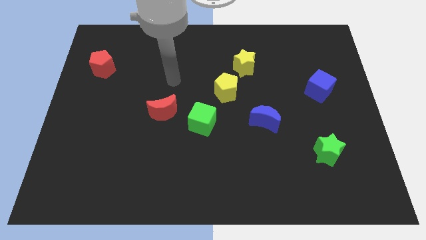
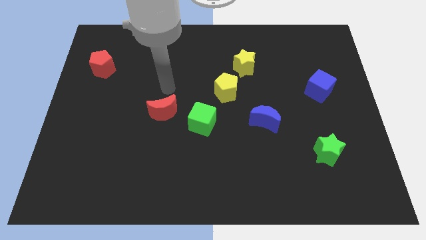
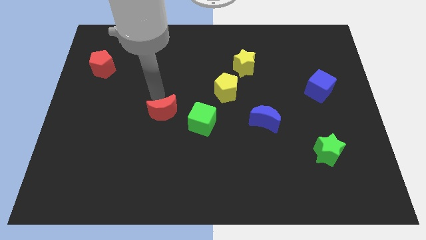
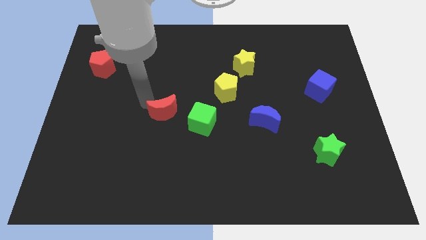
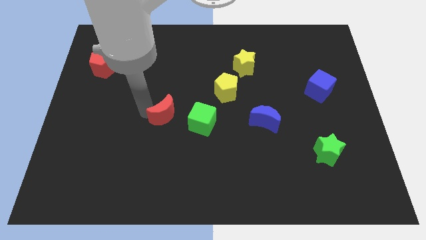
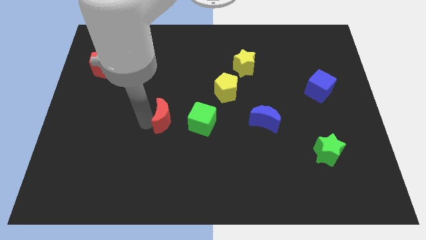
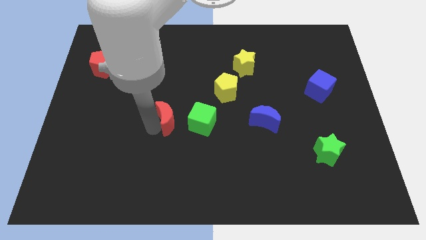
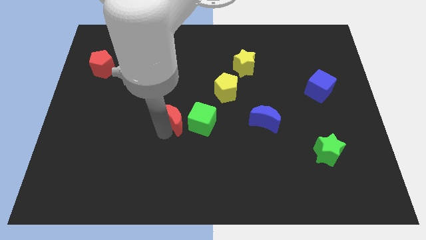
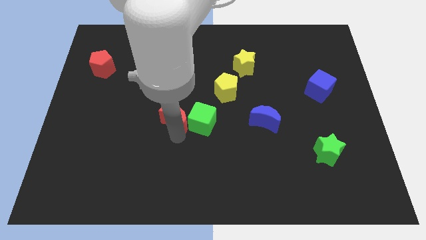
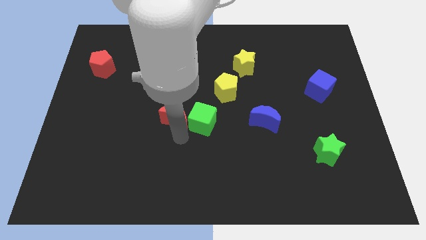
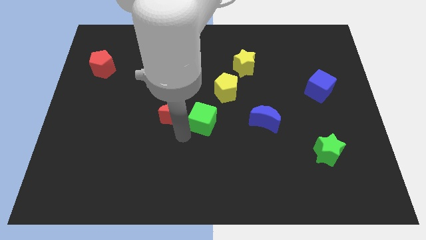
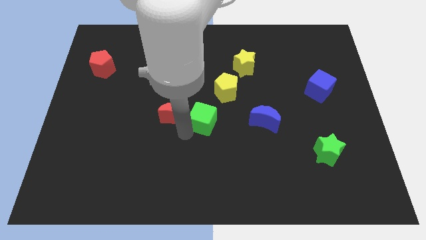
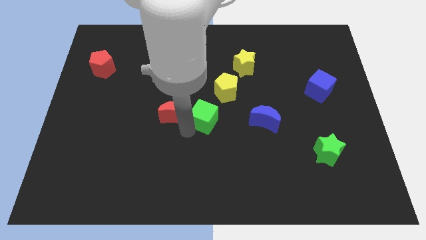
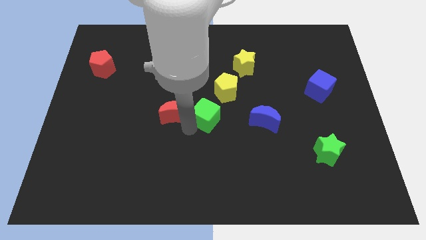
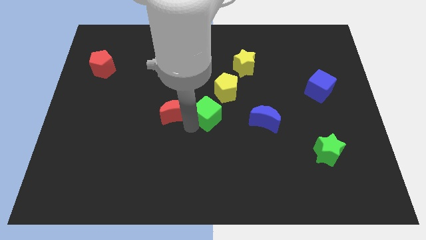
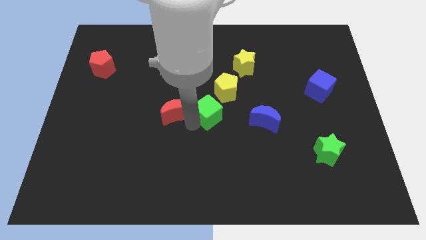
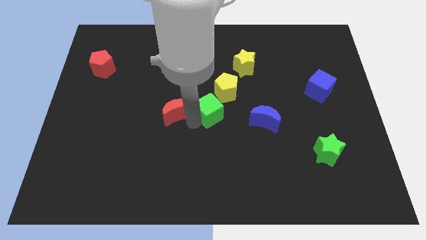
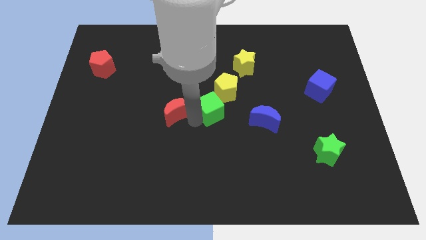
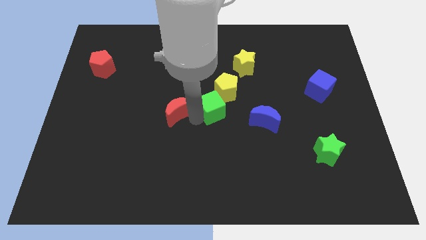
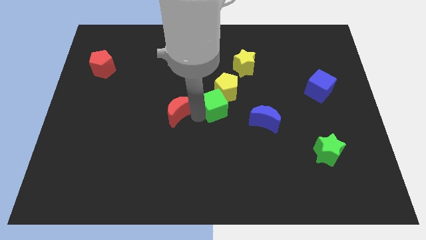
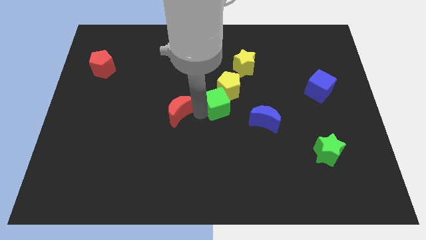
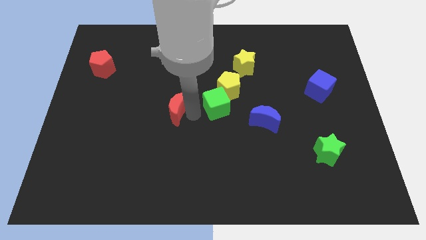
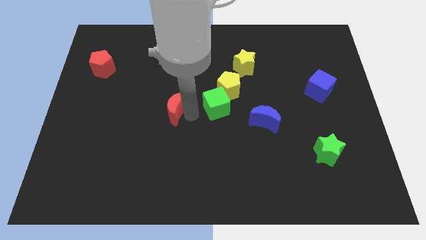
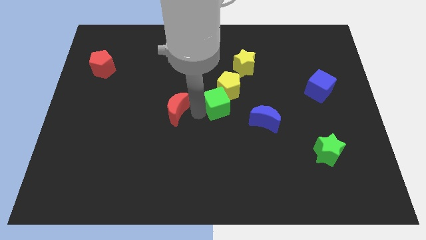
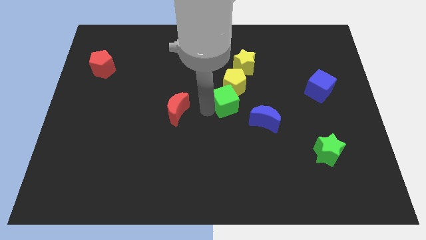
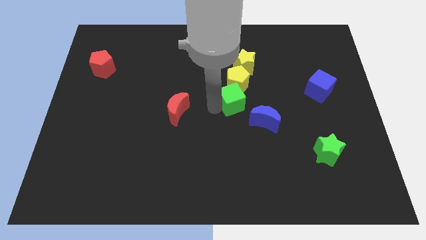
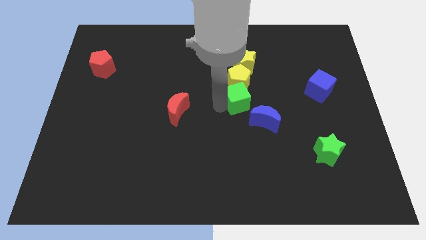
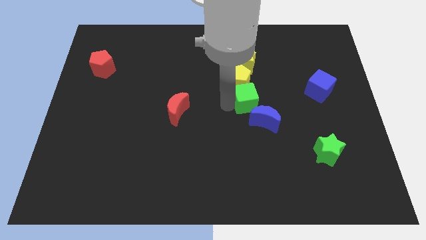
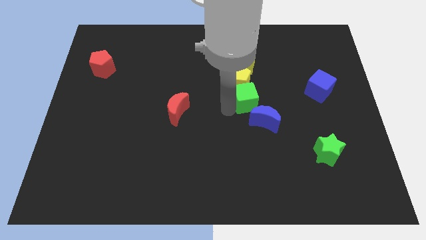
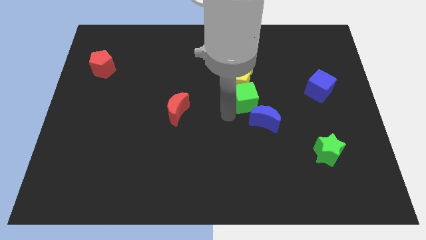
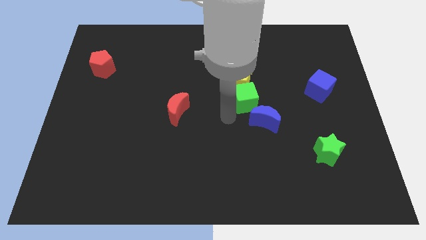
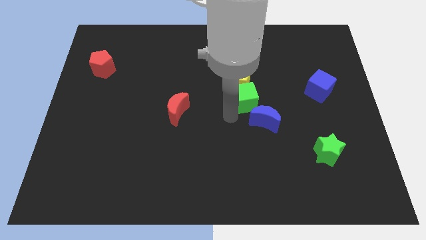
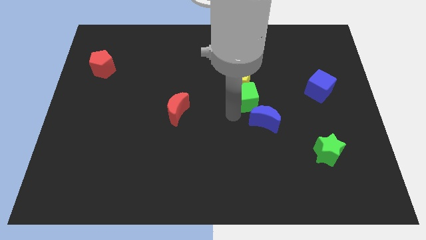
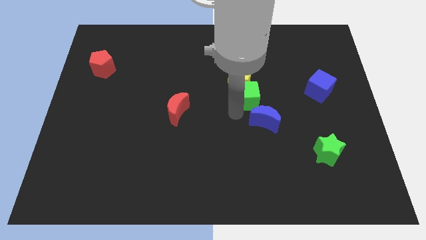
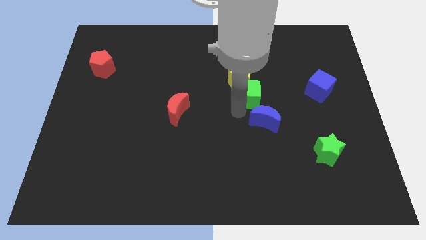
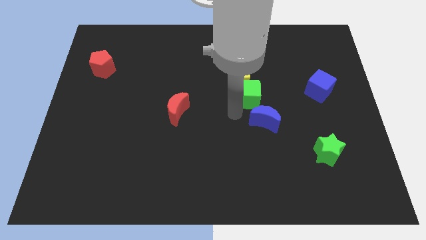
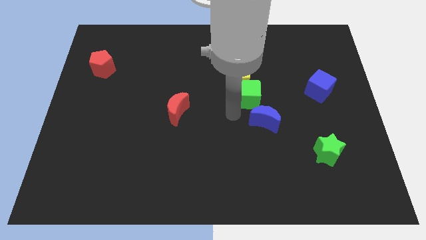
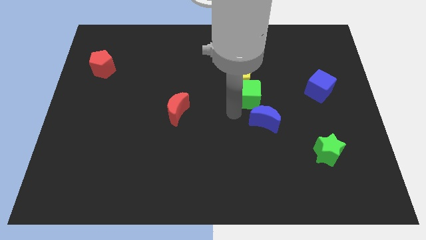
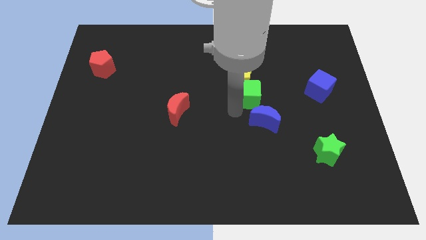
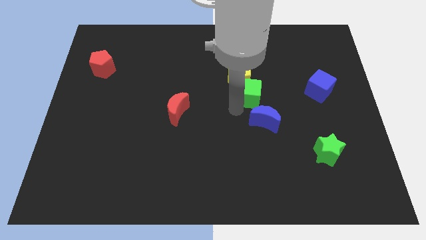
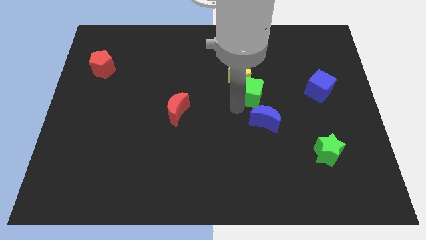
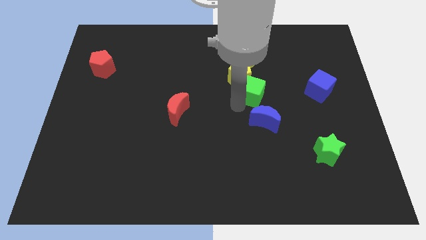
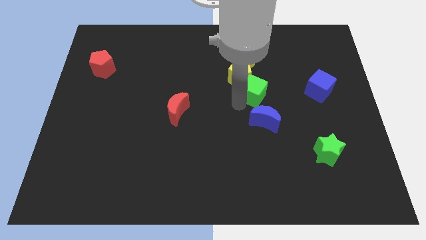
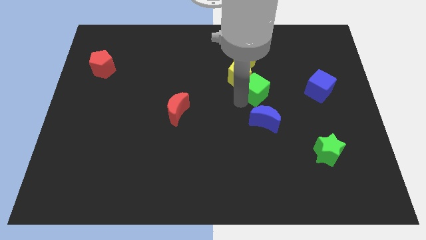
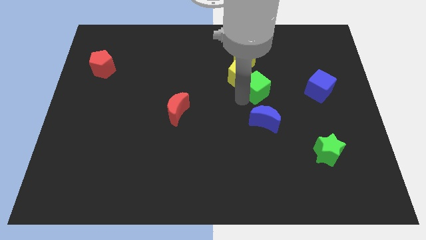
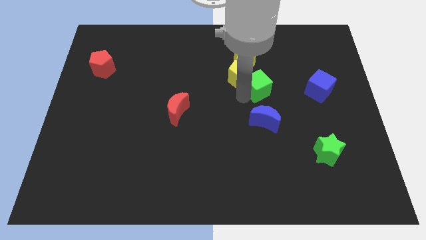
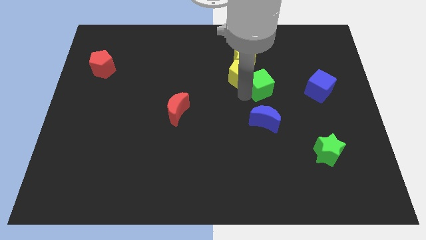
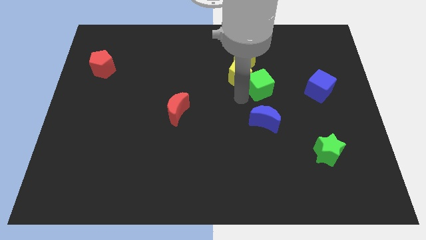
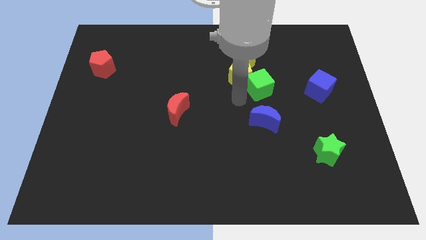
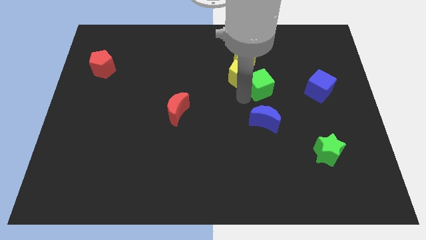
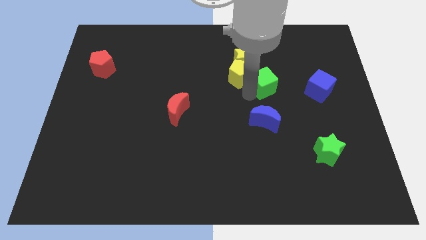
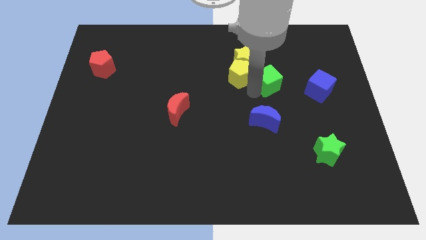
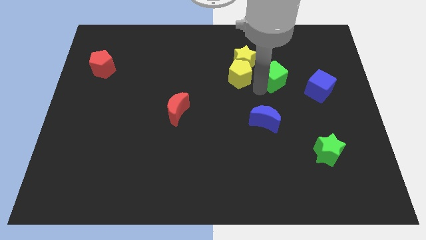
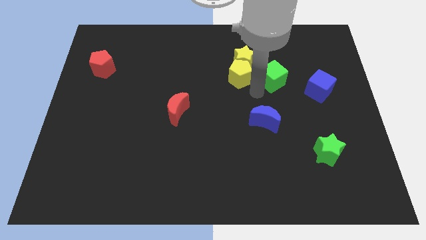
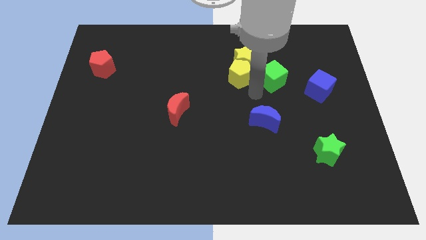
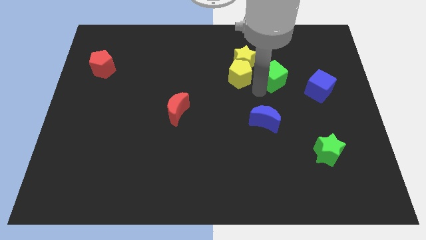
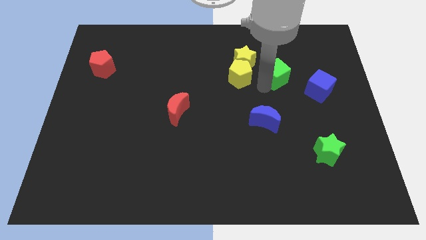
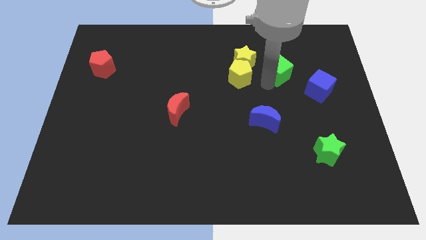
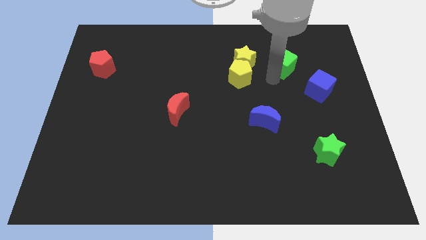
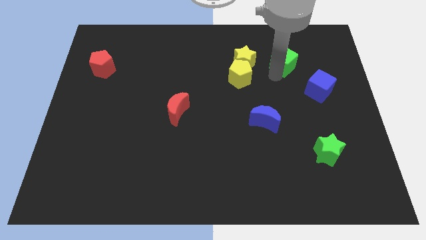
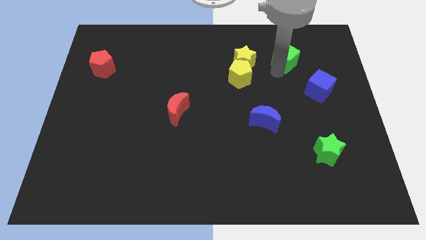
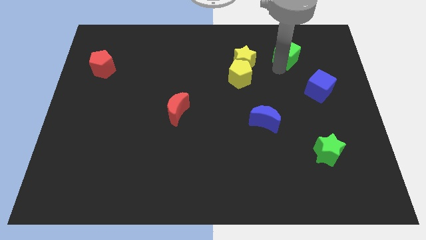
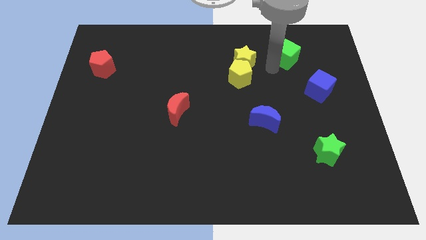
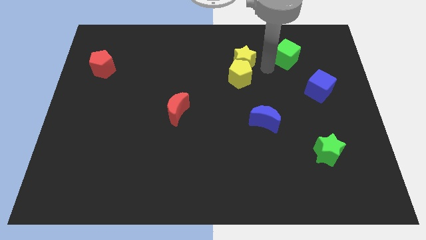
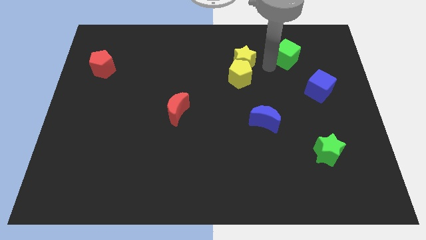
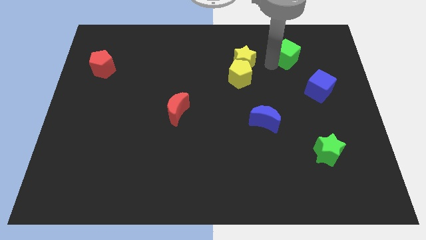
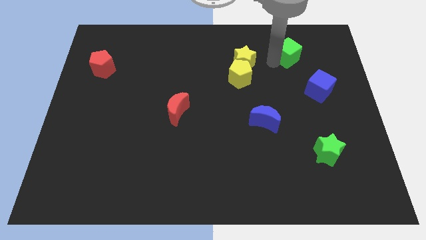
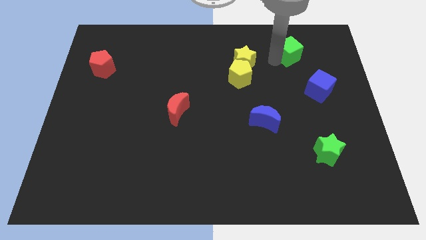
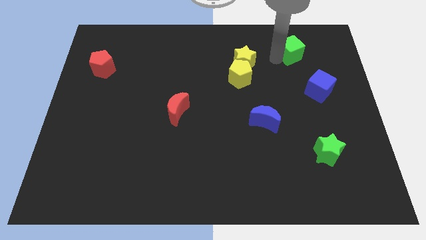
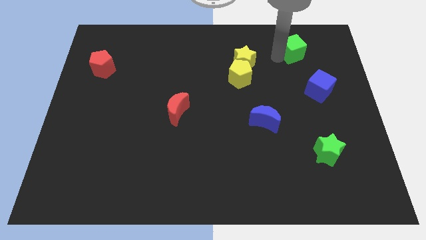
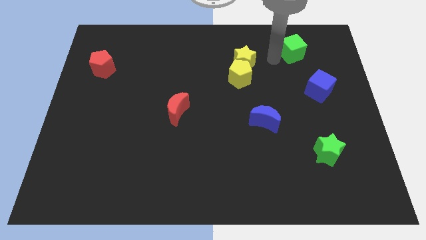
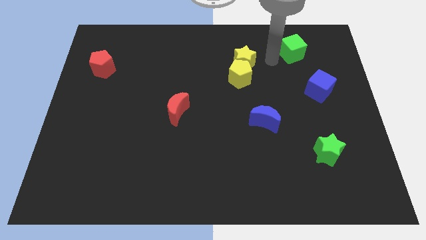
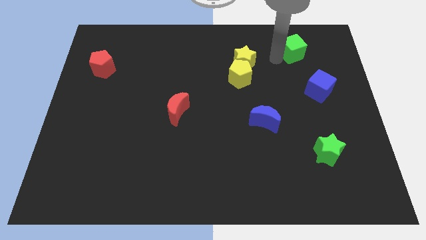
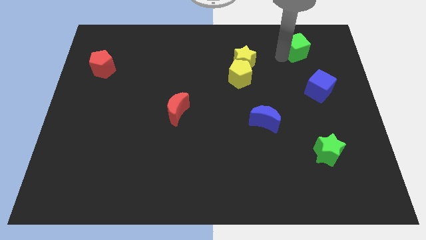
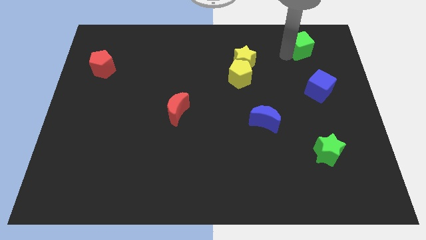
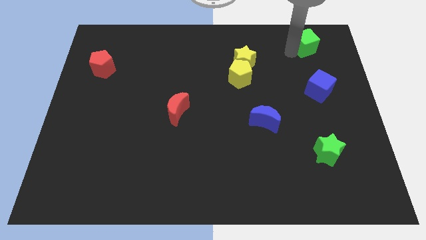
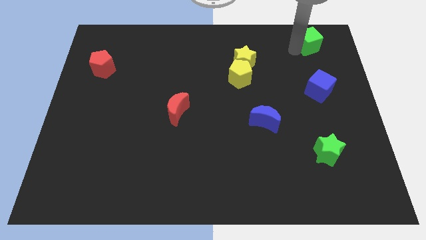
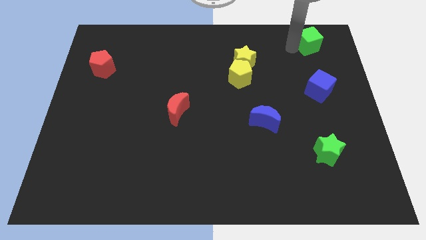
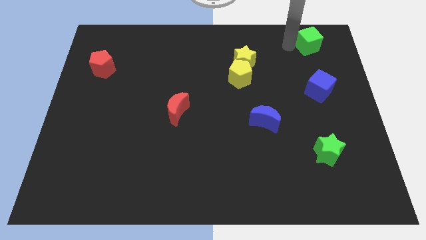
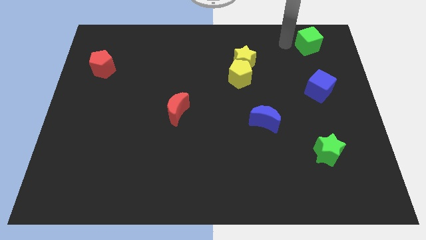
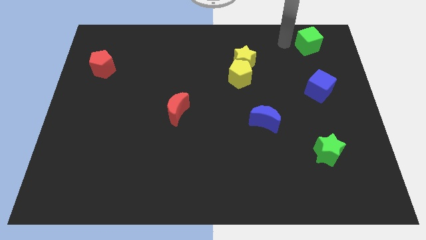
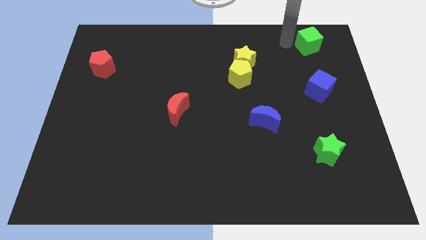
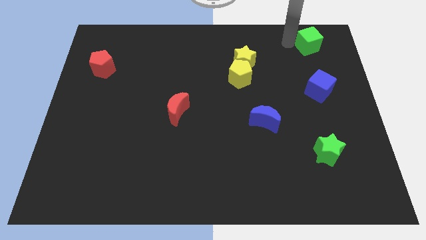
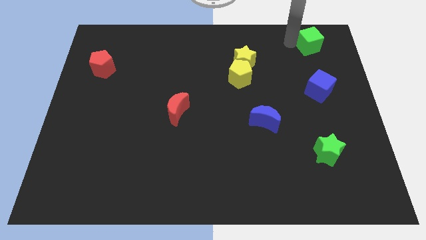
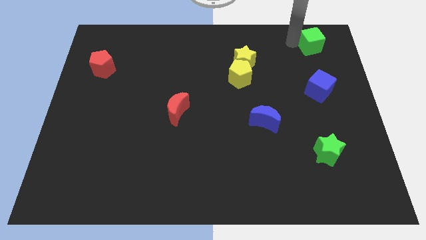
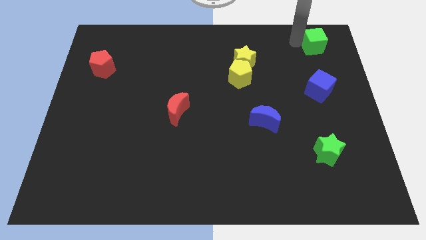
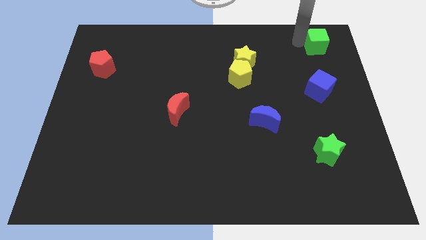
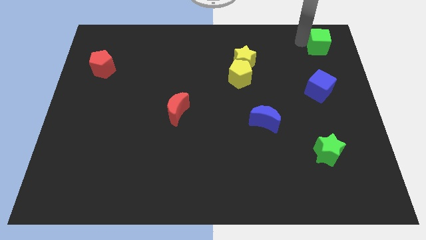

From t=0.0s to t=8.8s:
move the green cube to the top right of the board
